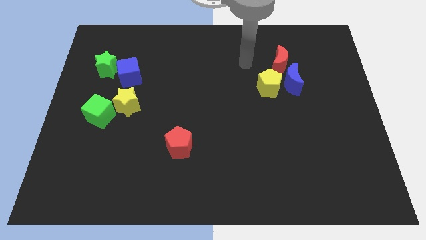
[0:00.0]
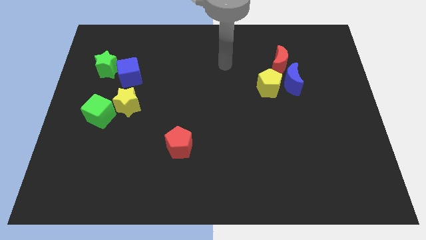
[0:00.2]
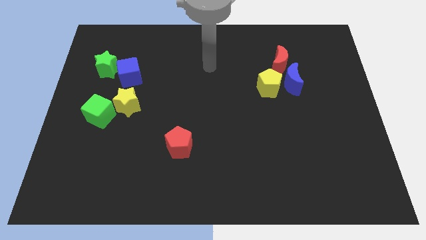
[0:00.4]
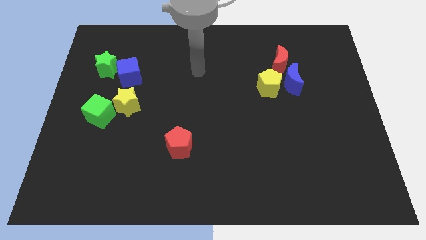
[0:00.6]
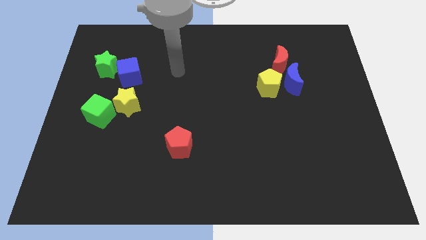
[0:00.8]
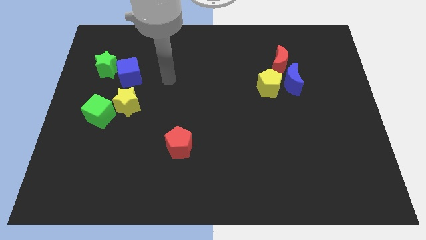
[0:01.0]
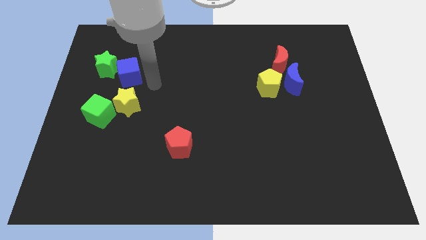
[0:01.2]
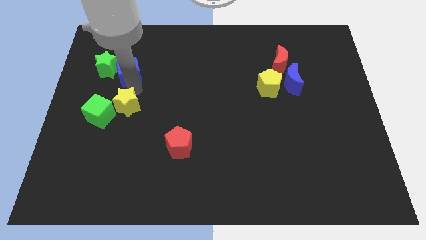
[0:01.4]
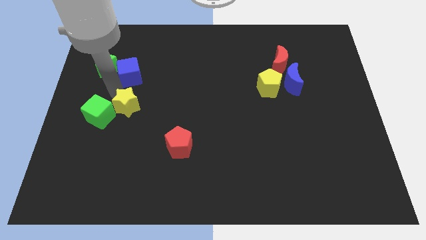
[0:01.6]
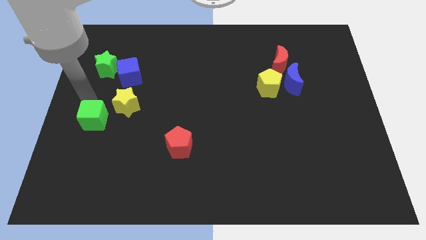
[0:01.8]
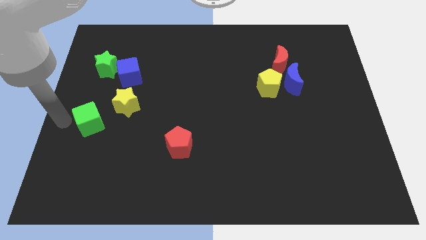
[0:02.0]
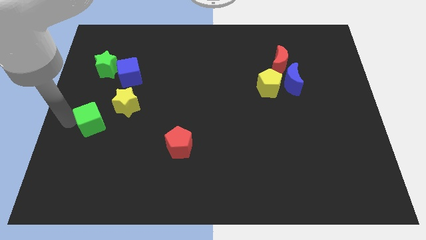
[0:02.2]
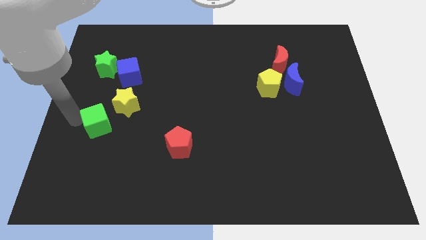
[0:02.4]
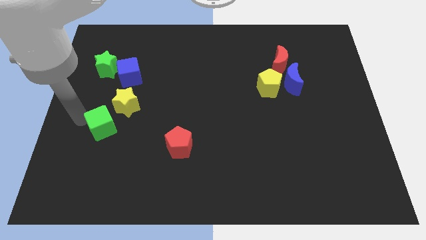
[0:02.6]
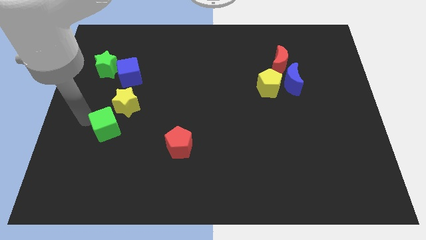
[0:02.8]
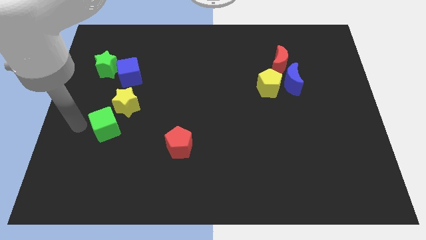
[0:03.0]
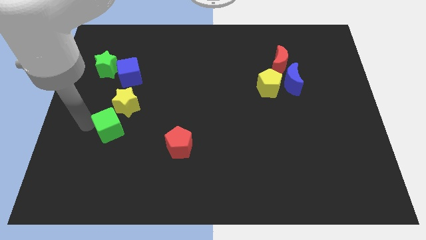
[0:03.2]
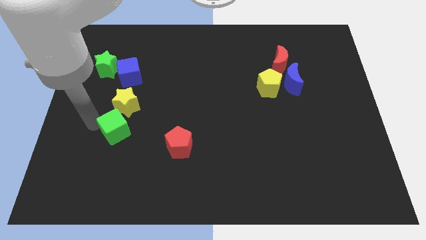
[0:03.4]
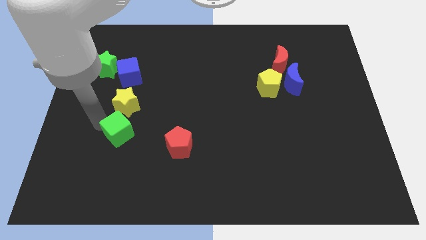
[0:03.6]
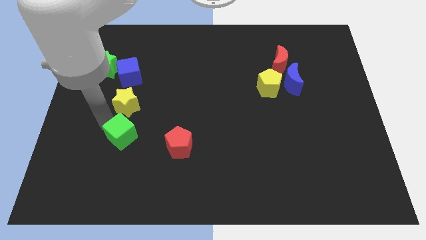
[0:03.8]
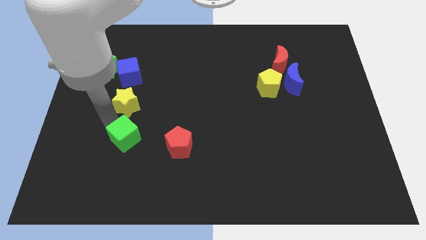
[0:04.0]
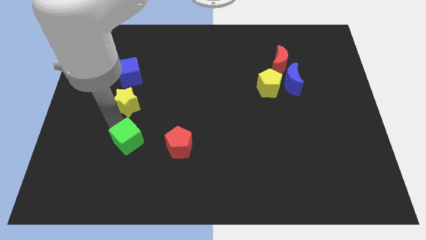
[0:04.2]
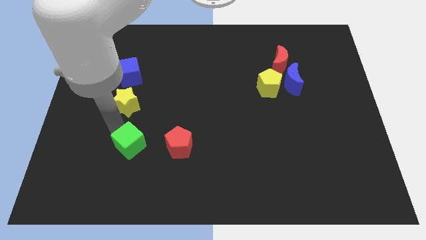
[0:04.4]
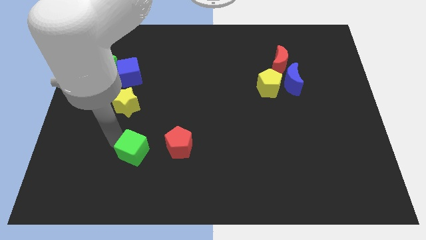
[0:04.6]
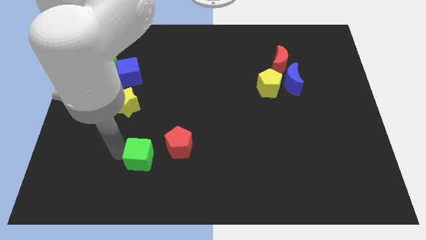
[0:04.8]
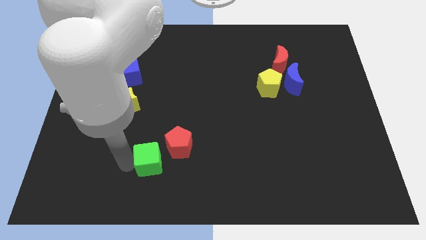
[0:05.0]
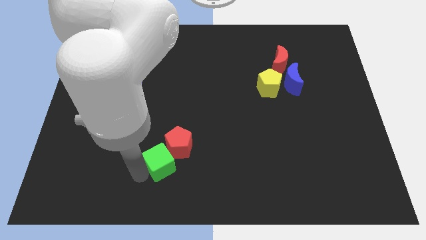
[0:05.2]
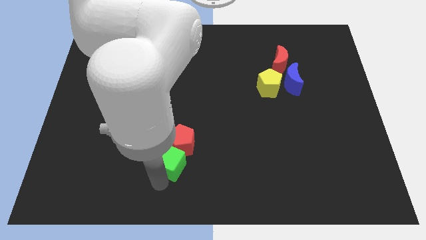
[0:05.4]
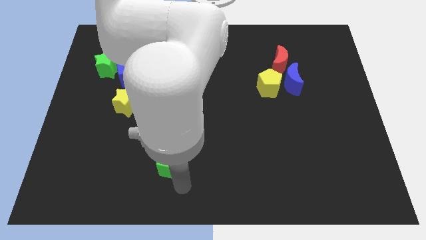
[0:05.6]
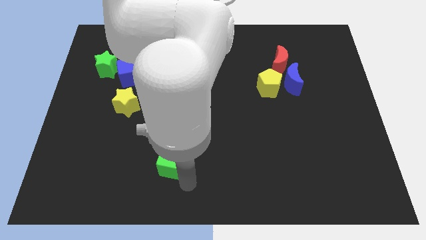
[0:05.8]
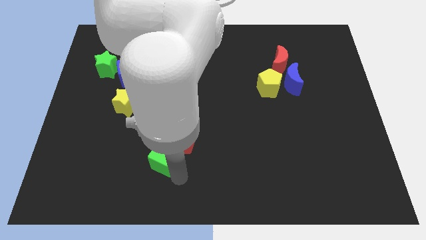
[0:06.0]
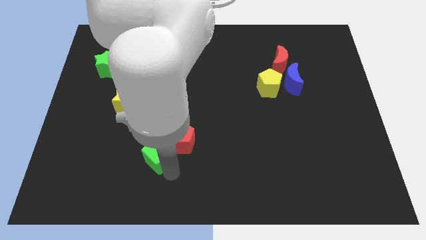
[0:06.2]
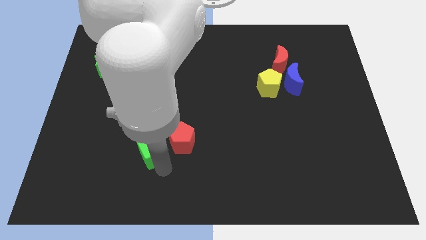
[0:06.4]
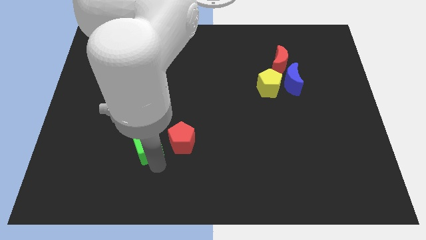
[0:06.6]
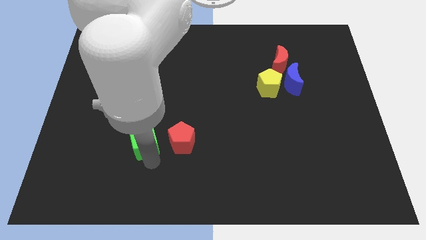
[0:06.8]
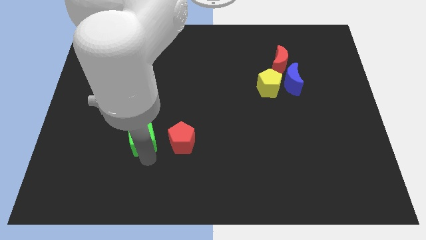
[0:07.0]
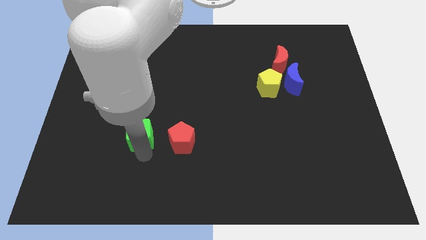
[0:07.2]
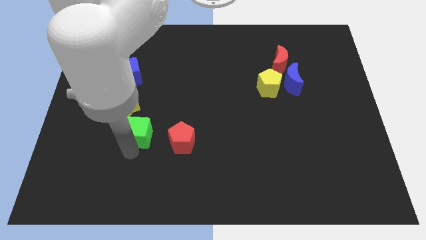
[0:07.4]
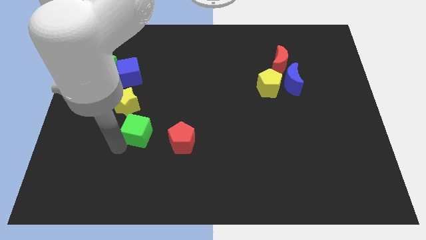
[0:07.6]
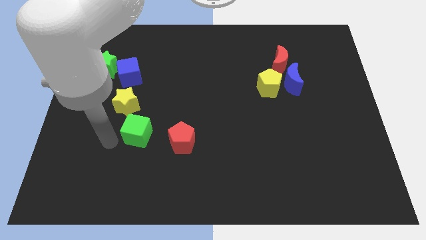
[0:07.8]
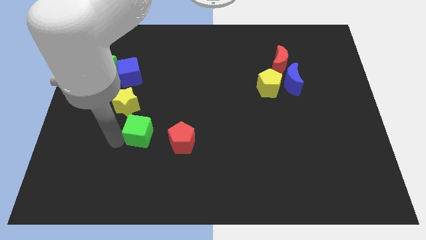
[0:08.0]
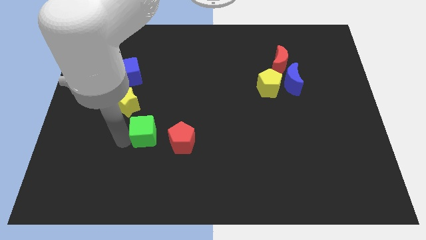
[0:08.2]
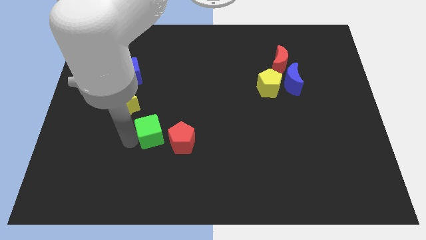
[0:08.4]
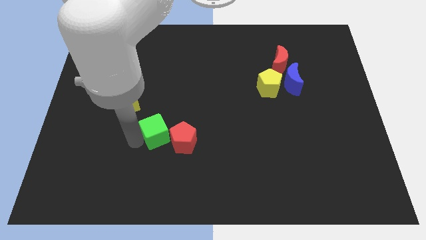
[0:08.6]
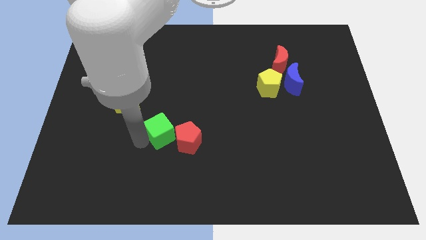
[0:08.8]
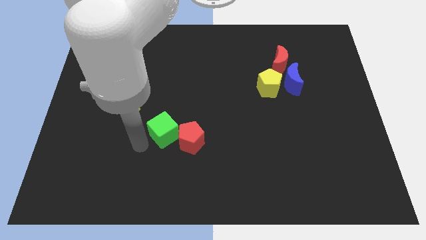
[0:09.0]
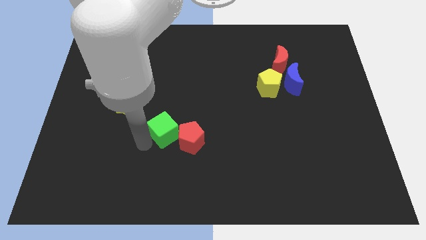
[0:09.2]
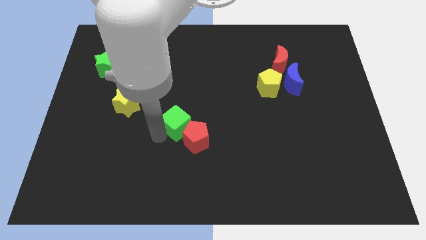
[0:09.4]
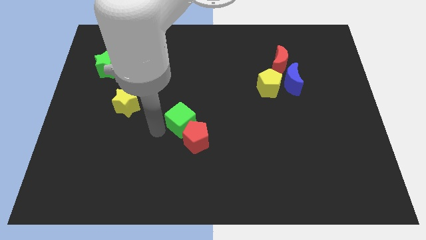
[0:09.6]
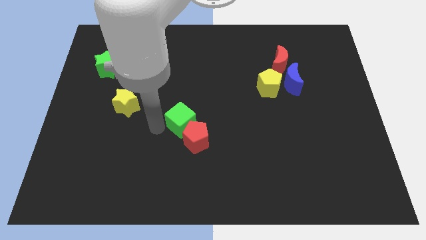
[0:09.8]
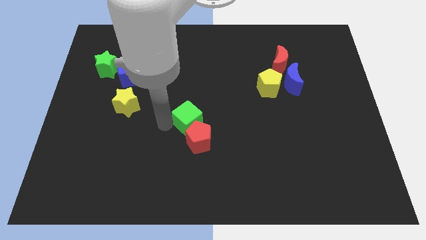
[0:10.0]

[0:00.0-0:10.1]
slide the green cube right

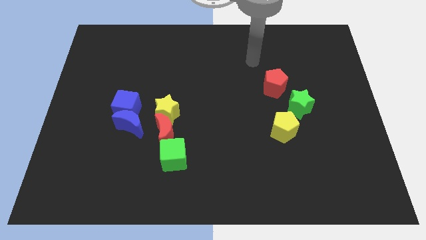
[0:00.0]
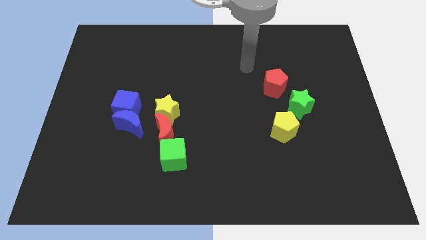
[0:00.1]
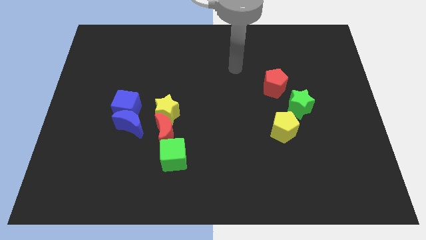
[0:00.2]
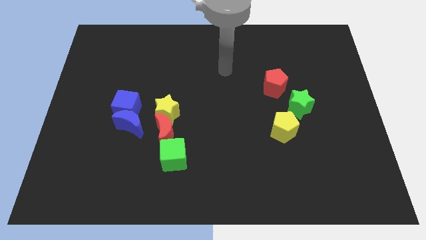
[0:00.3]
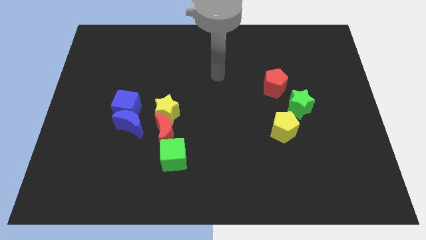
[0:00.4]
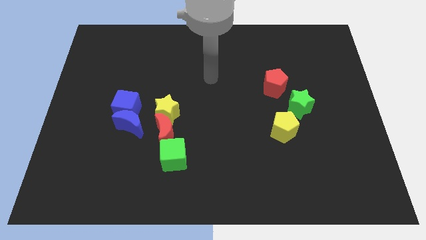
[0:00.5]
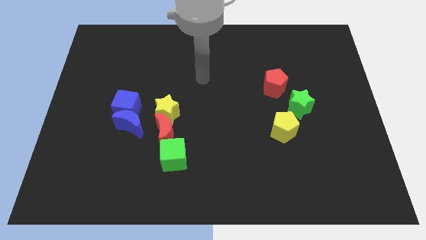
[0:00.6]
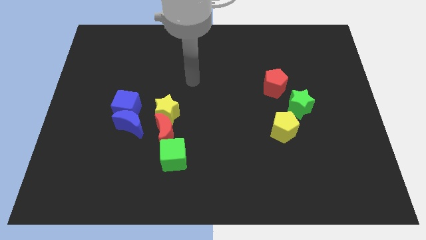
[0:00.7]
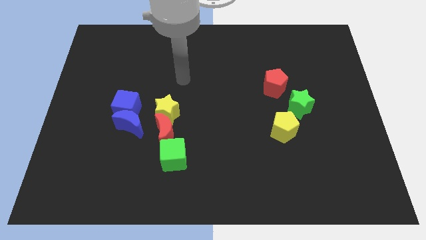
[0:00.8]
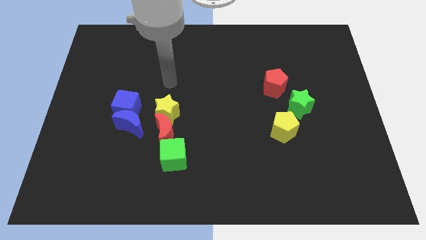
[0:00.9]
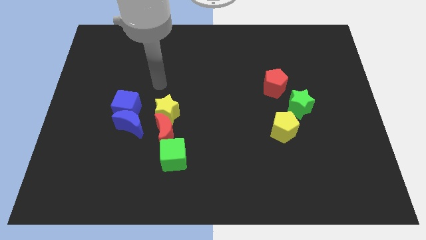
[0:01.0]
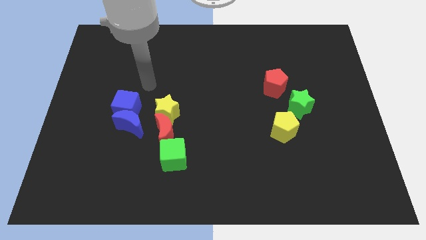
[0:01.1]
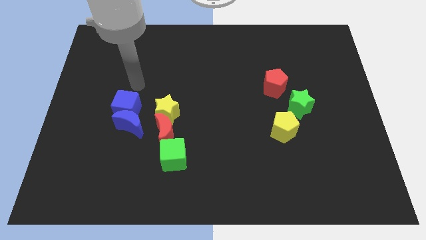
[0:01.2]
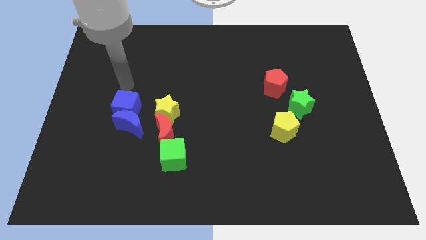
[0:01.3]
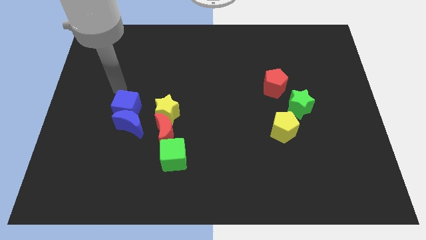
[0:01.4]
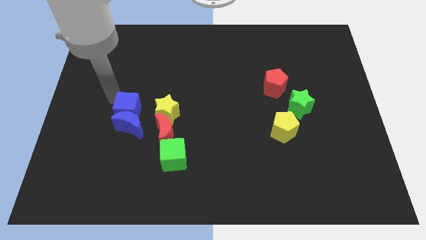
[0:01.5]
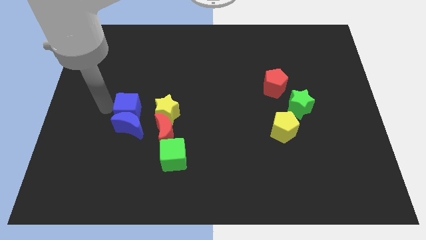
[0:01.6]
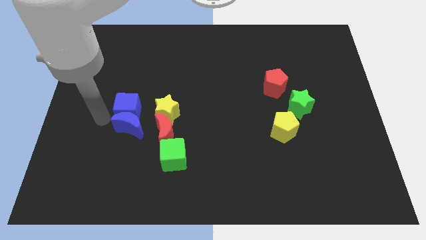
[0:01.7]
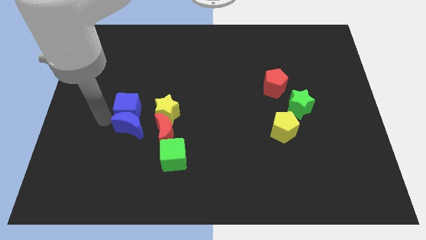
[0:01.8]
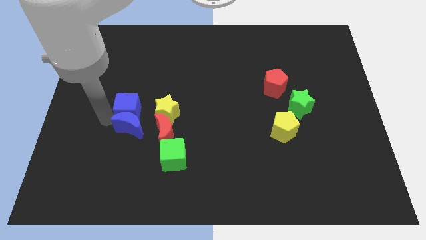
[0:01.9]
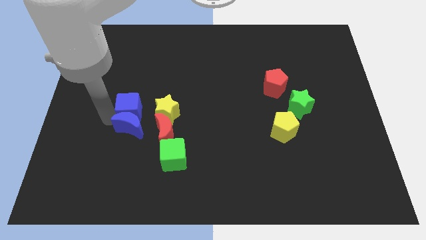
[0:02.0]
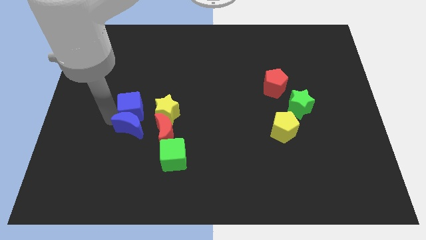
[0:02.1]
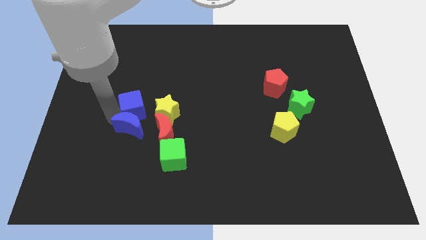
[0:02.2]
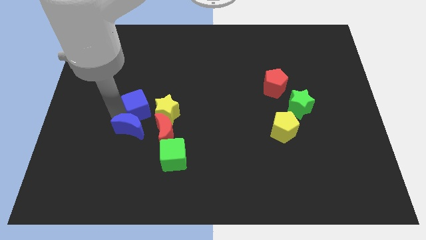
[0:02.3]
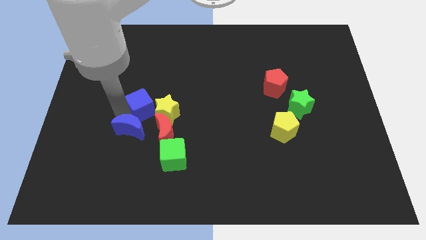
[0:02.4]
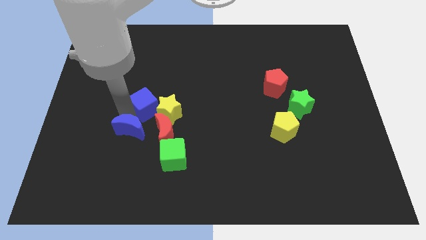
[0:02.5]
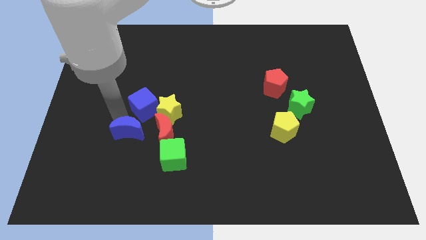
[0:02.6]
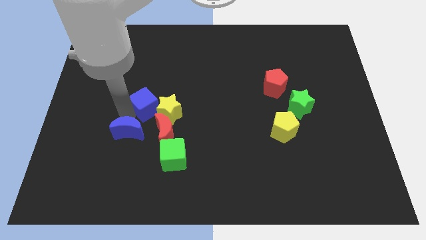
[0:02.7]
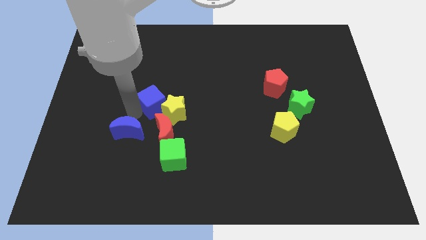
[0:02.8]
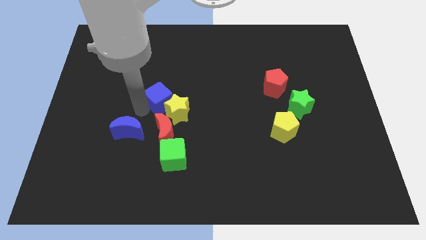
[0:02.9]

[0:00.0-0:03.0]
push the blue cube slightly right

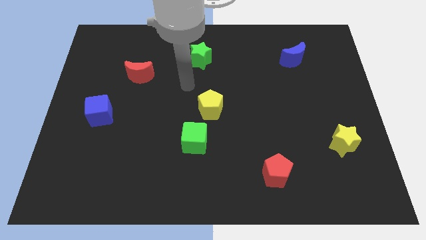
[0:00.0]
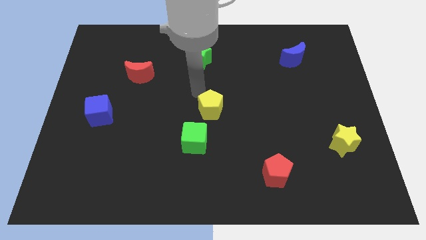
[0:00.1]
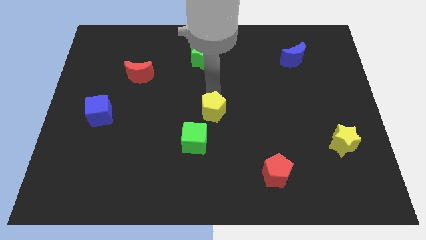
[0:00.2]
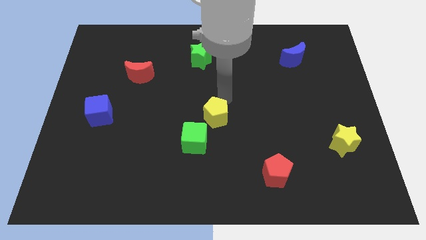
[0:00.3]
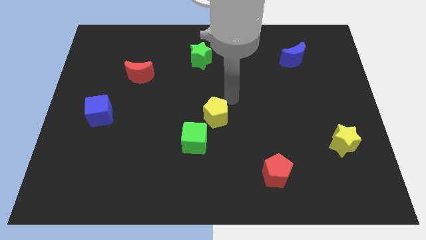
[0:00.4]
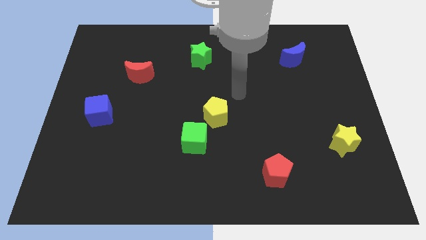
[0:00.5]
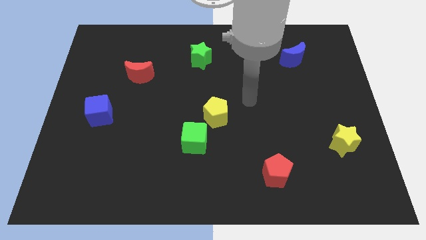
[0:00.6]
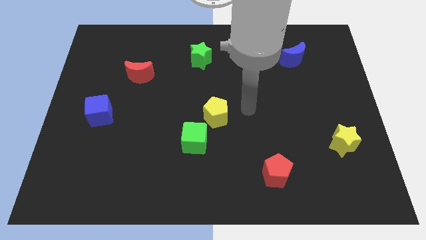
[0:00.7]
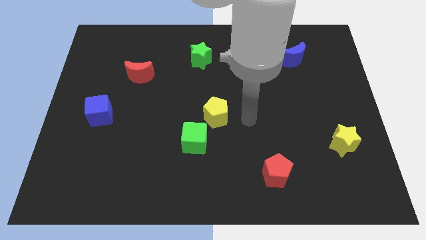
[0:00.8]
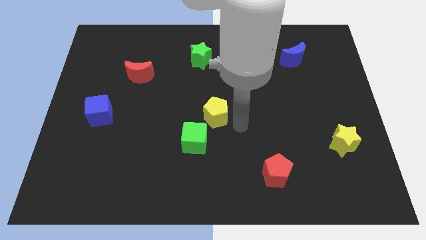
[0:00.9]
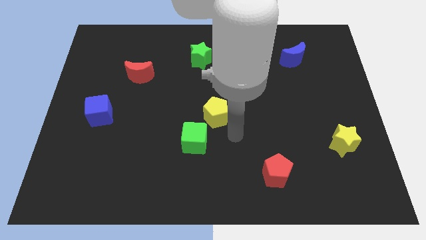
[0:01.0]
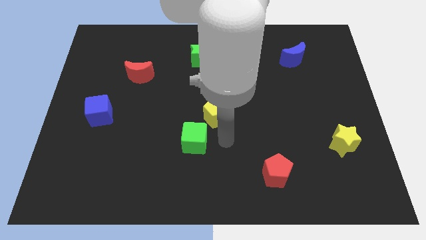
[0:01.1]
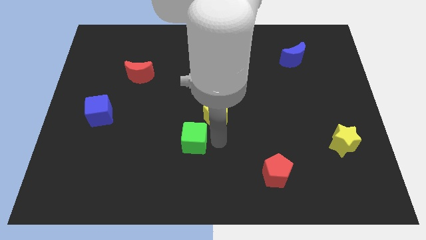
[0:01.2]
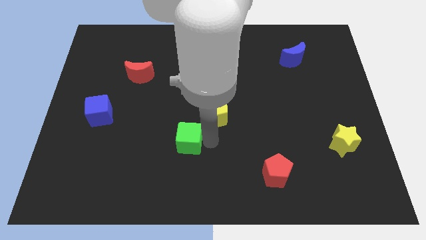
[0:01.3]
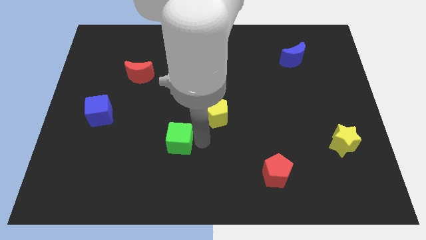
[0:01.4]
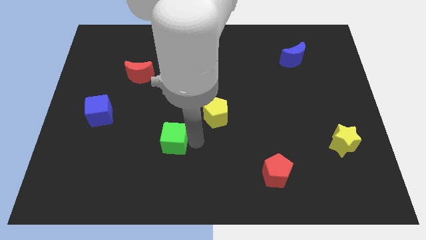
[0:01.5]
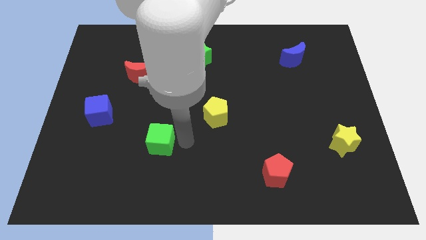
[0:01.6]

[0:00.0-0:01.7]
slide the green cube slightly left
